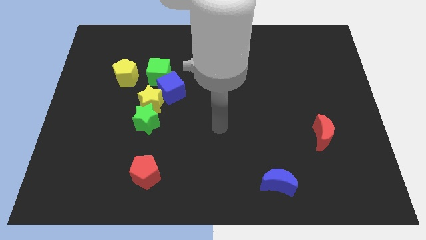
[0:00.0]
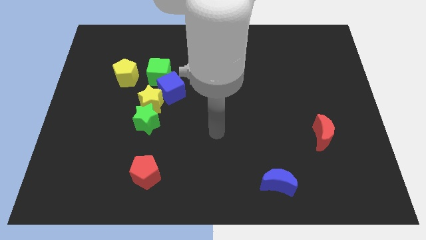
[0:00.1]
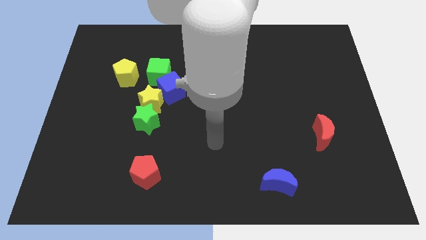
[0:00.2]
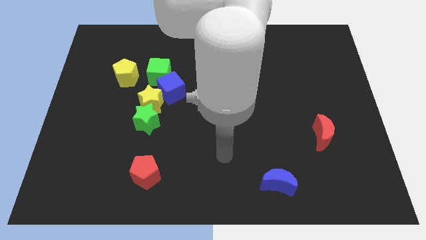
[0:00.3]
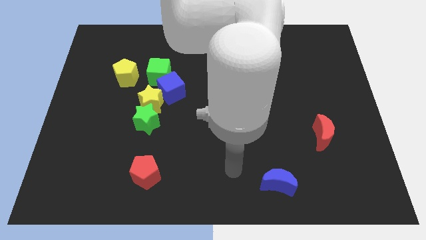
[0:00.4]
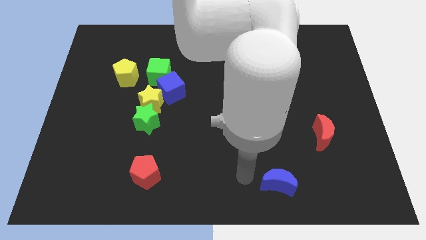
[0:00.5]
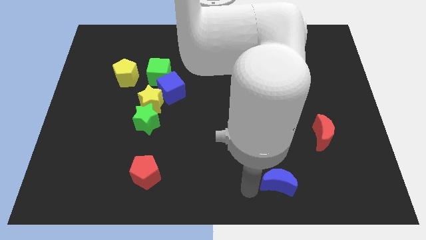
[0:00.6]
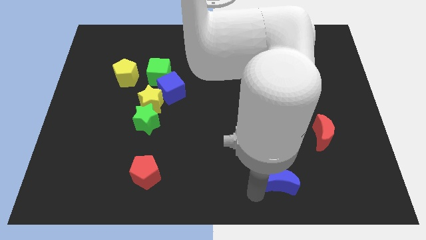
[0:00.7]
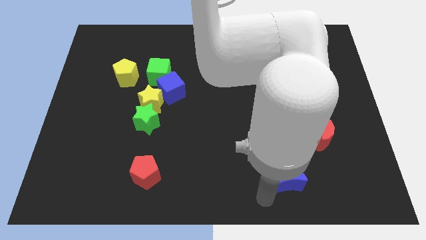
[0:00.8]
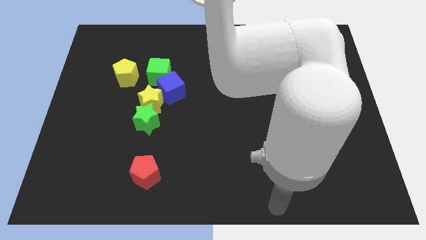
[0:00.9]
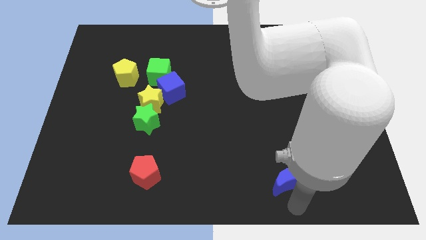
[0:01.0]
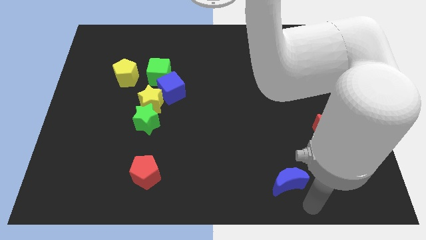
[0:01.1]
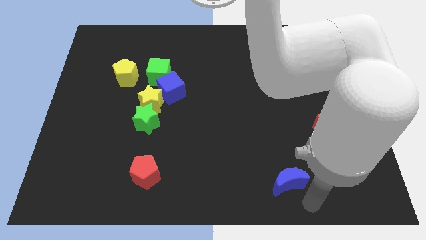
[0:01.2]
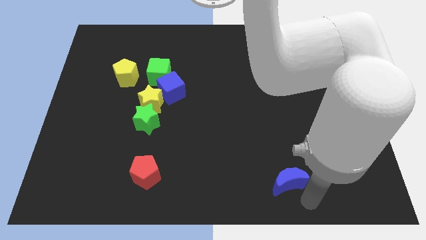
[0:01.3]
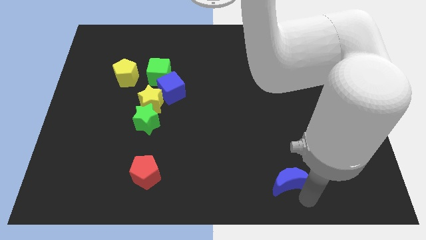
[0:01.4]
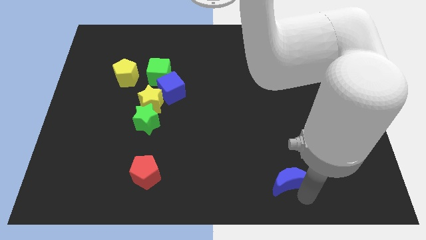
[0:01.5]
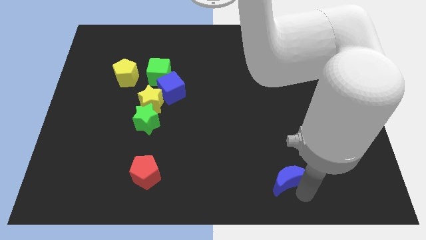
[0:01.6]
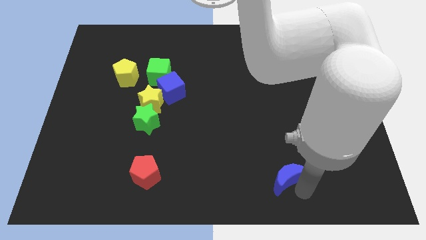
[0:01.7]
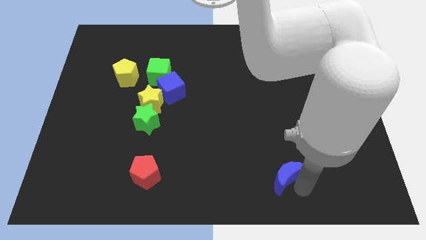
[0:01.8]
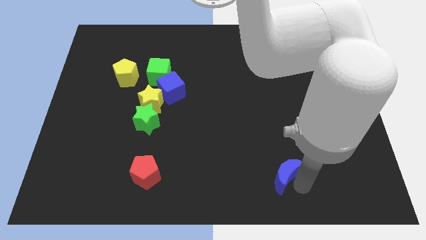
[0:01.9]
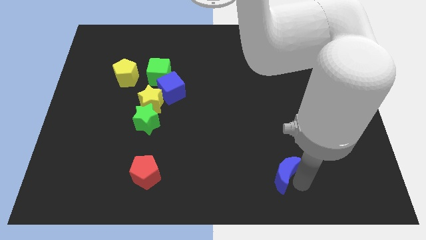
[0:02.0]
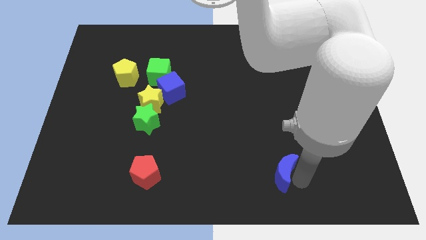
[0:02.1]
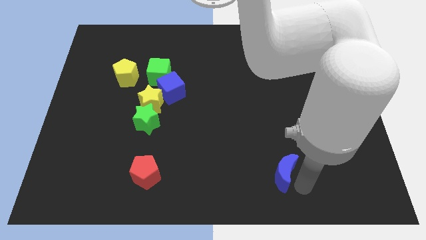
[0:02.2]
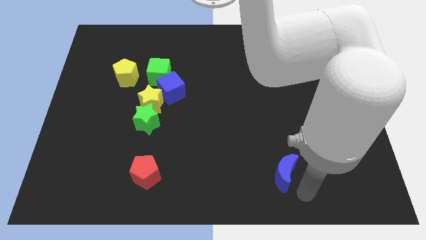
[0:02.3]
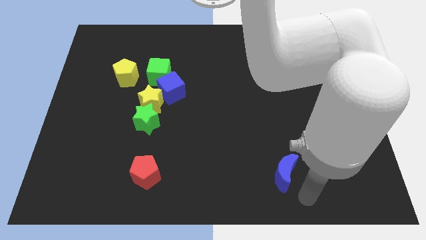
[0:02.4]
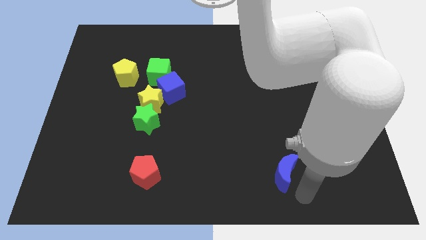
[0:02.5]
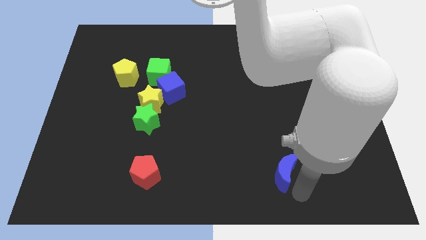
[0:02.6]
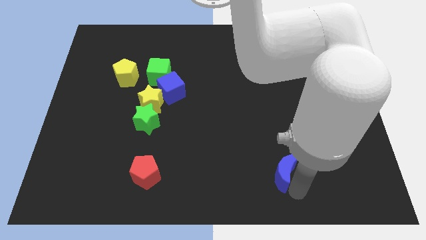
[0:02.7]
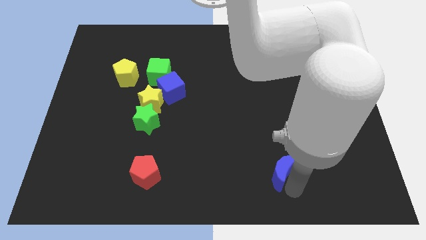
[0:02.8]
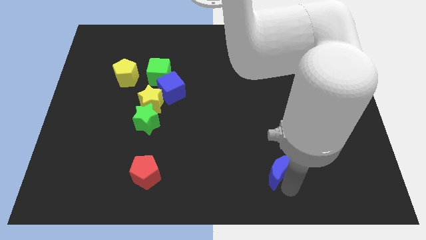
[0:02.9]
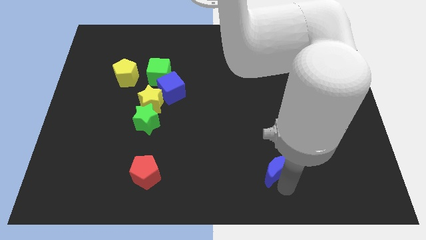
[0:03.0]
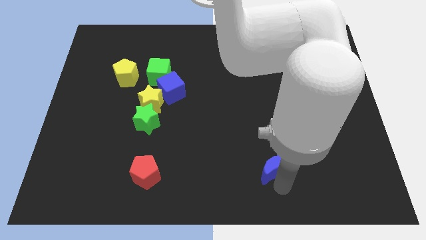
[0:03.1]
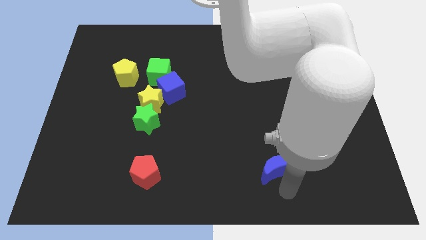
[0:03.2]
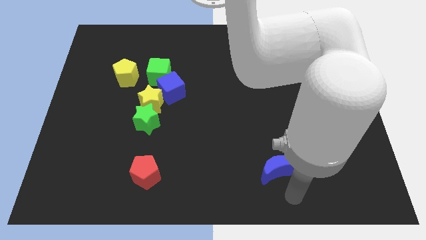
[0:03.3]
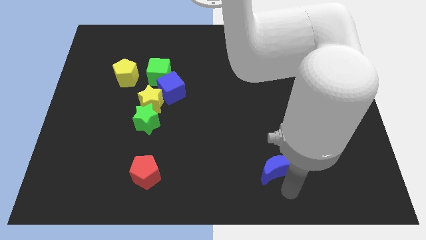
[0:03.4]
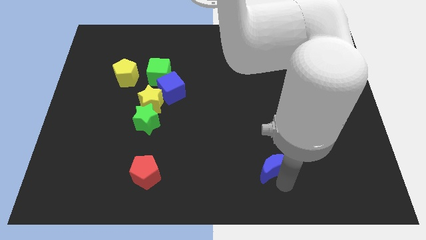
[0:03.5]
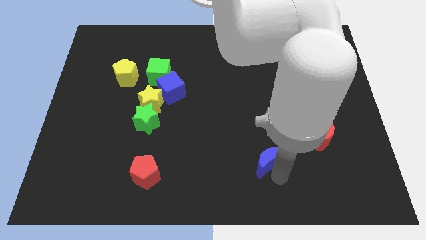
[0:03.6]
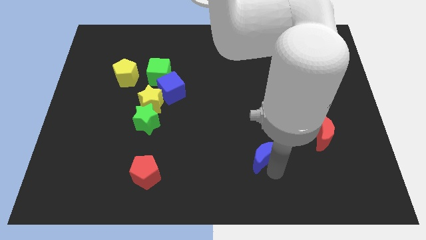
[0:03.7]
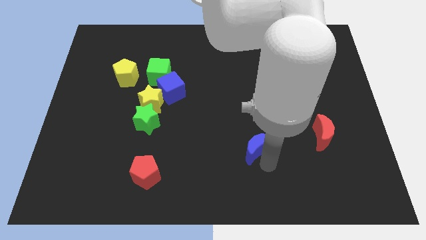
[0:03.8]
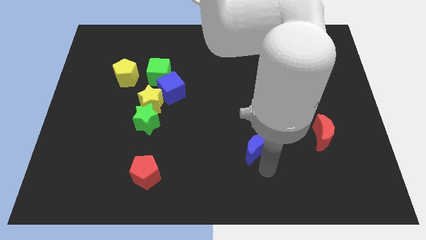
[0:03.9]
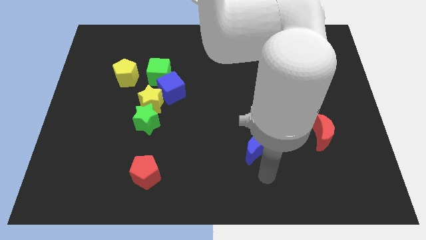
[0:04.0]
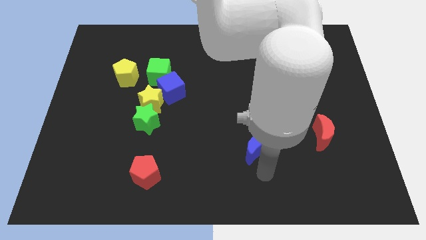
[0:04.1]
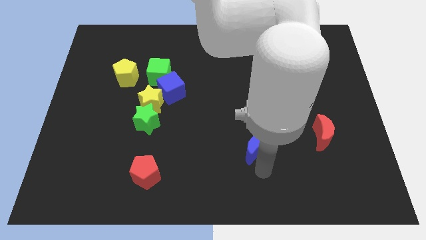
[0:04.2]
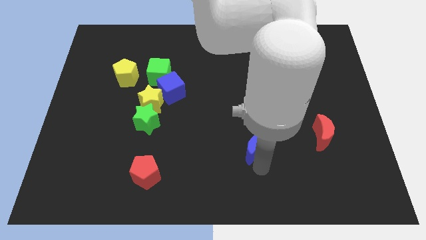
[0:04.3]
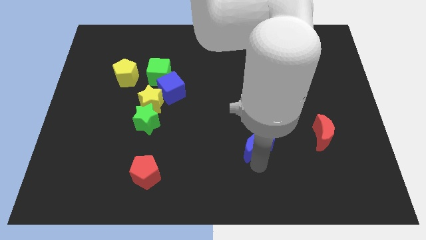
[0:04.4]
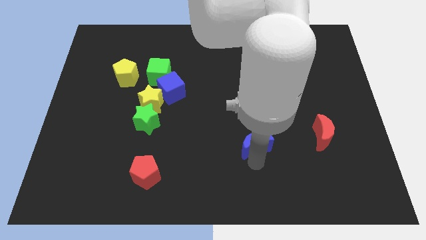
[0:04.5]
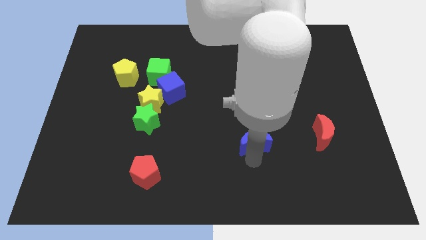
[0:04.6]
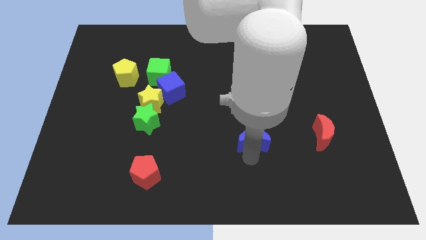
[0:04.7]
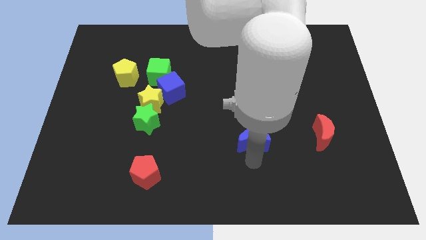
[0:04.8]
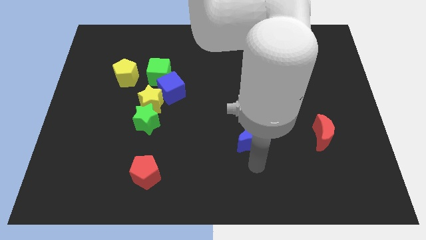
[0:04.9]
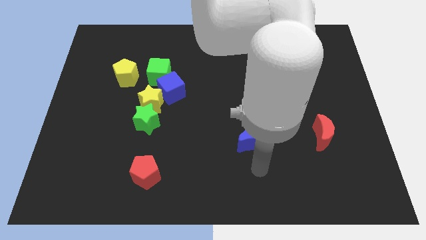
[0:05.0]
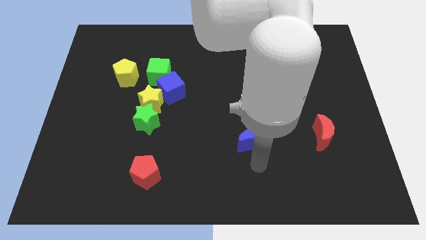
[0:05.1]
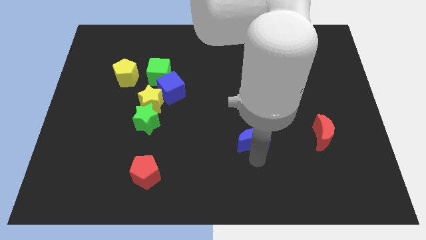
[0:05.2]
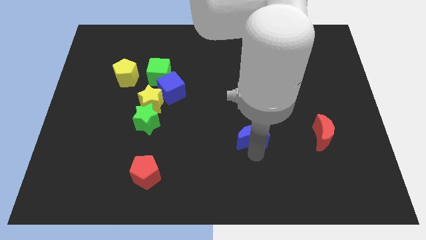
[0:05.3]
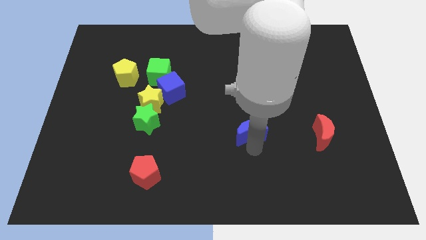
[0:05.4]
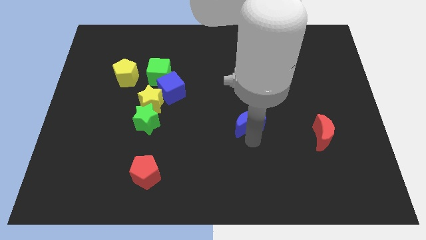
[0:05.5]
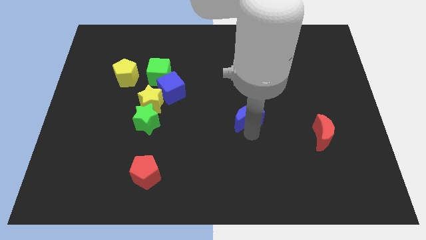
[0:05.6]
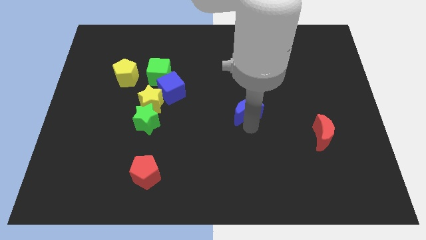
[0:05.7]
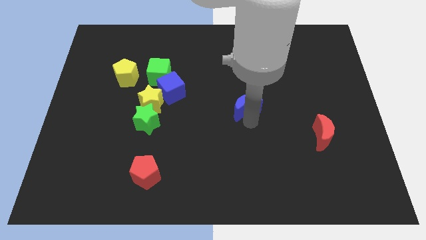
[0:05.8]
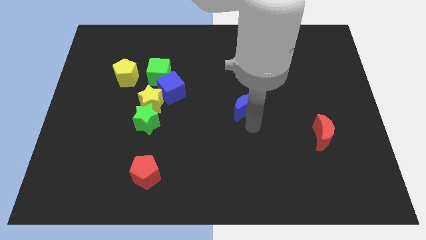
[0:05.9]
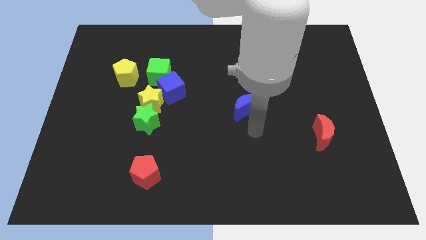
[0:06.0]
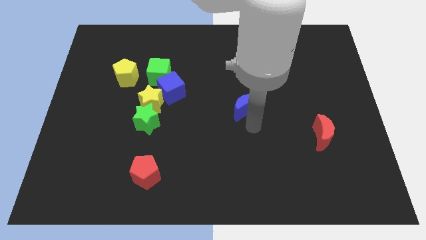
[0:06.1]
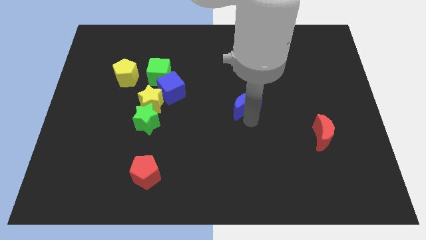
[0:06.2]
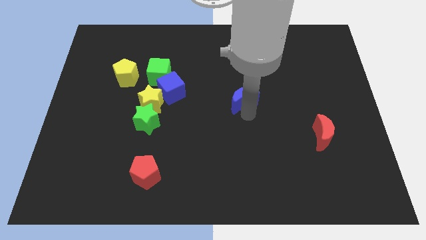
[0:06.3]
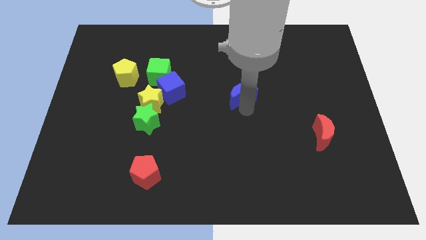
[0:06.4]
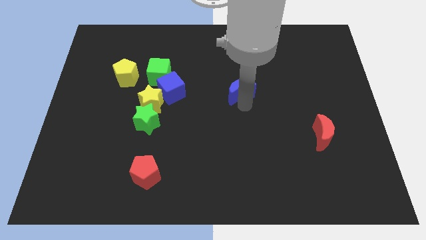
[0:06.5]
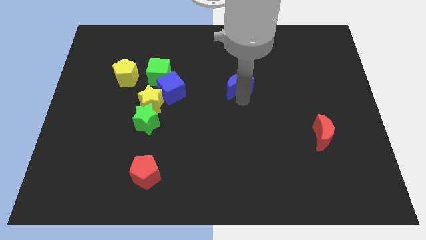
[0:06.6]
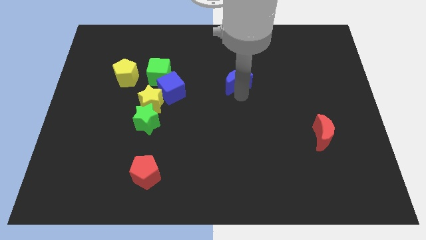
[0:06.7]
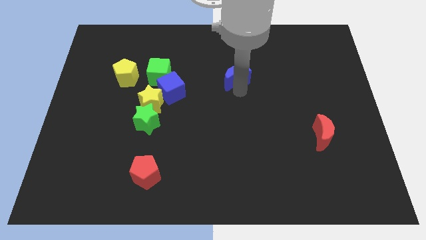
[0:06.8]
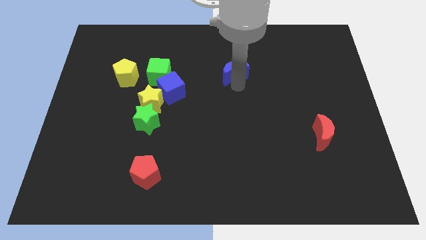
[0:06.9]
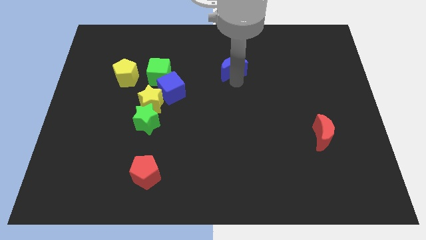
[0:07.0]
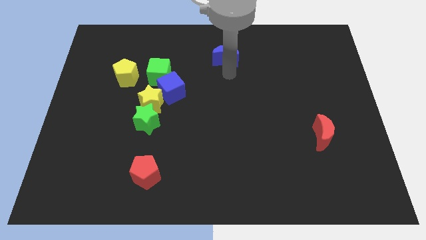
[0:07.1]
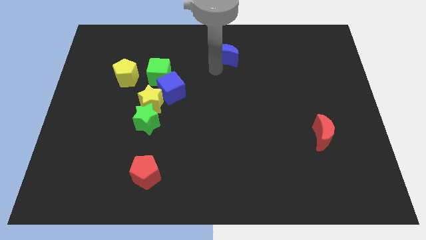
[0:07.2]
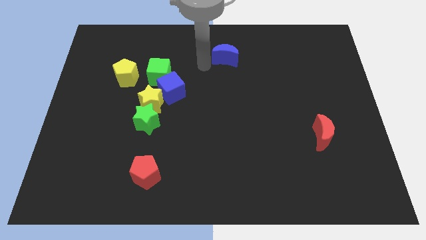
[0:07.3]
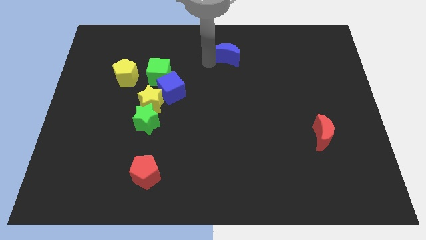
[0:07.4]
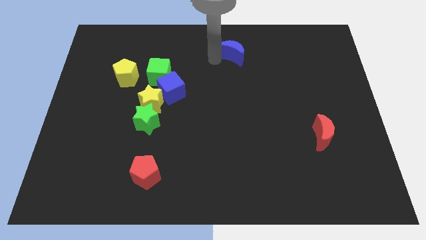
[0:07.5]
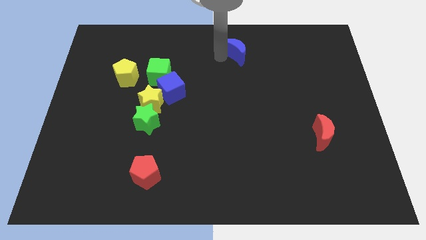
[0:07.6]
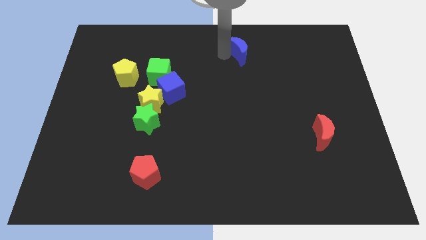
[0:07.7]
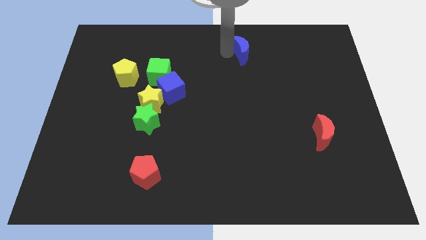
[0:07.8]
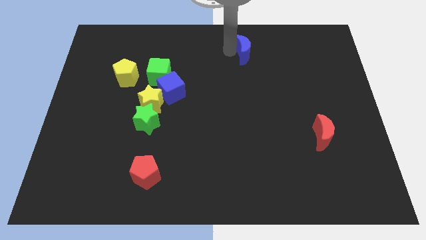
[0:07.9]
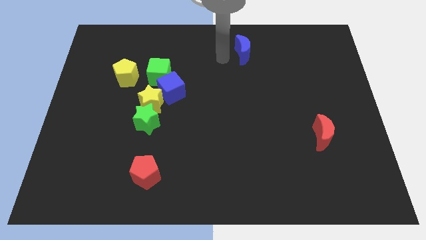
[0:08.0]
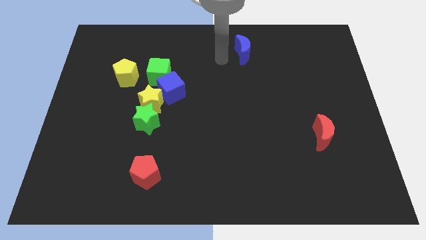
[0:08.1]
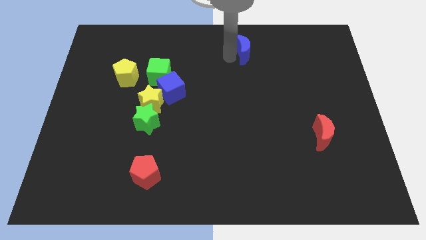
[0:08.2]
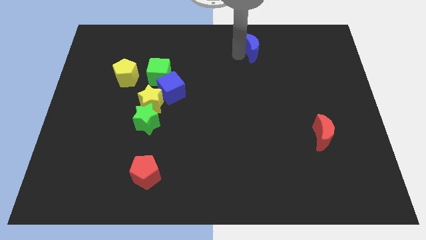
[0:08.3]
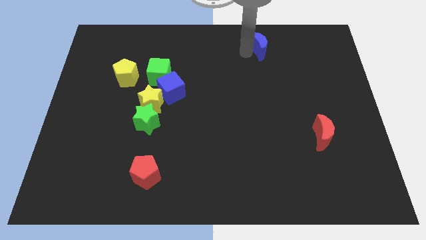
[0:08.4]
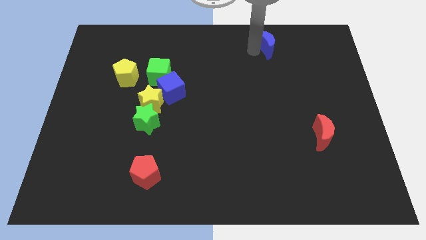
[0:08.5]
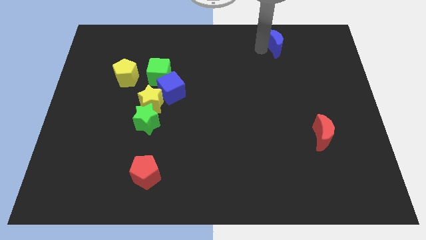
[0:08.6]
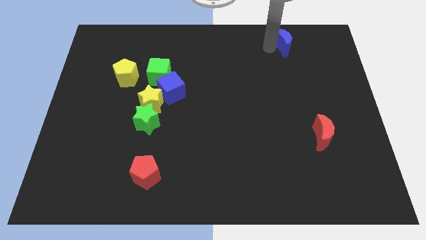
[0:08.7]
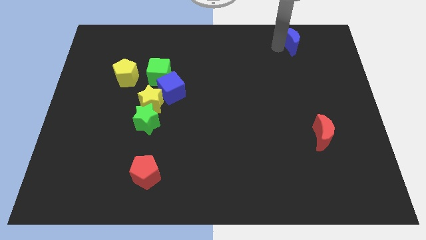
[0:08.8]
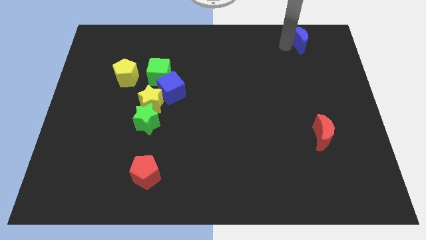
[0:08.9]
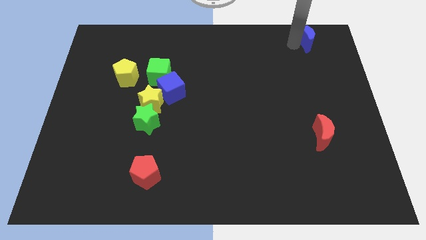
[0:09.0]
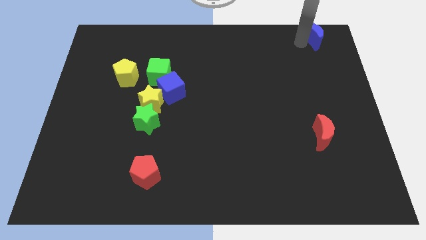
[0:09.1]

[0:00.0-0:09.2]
move the blue moon to the top right
